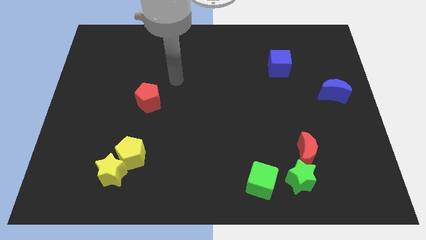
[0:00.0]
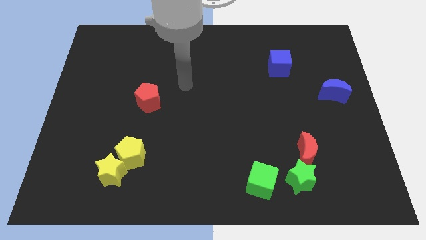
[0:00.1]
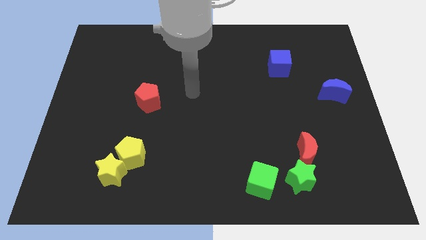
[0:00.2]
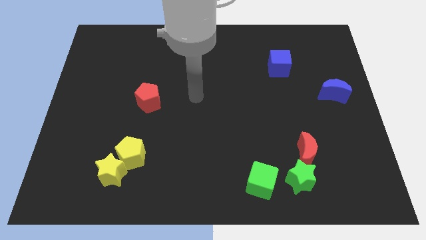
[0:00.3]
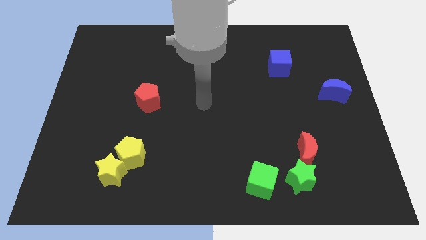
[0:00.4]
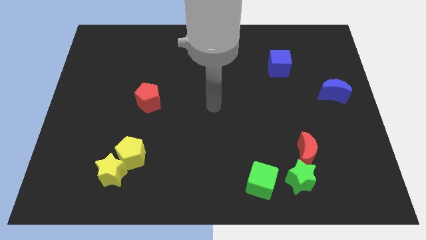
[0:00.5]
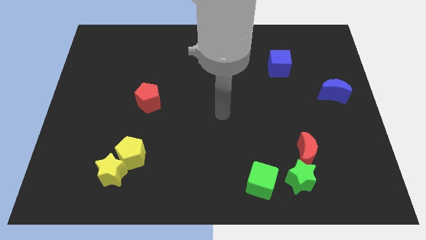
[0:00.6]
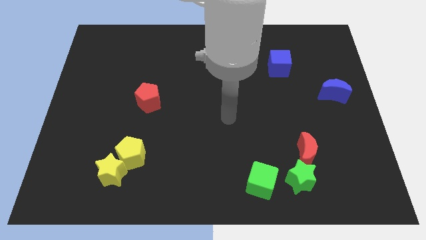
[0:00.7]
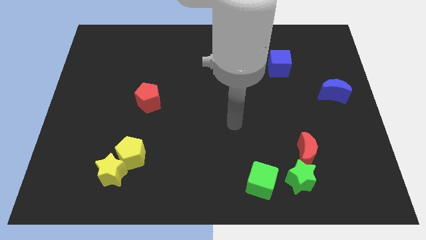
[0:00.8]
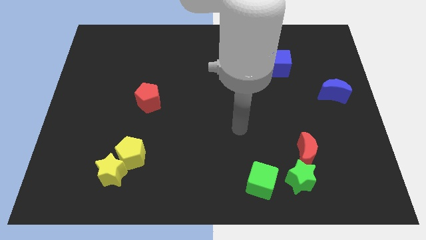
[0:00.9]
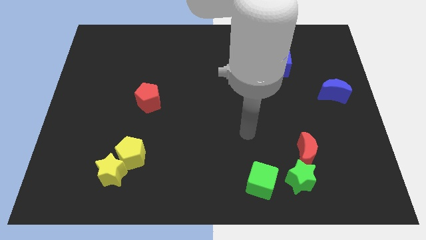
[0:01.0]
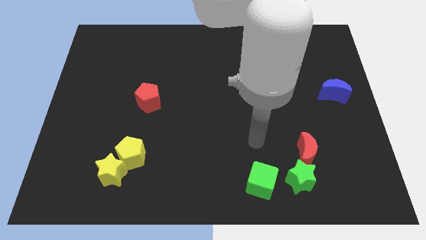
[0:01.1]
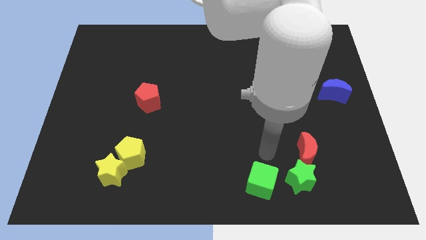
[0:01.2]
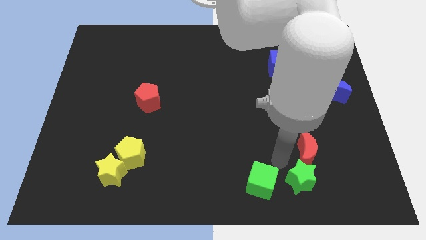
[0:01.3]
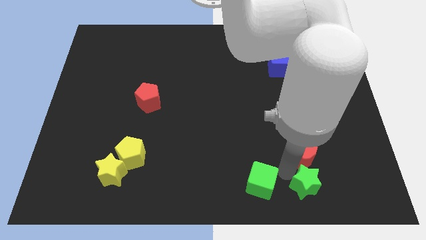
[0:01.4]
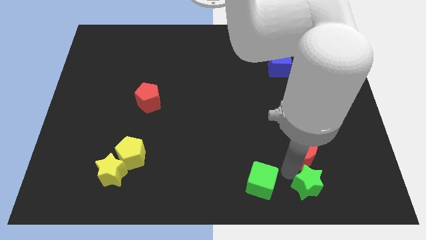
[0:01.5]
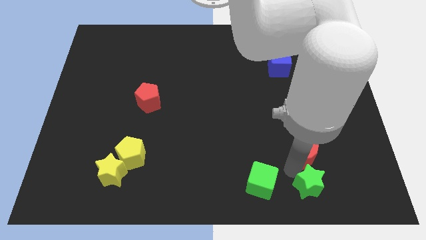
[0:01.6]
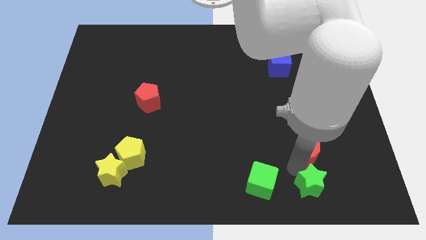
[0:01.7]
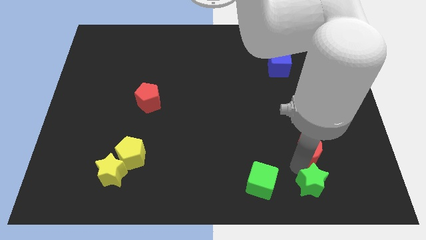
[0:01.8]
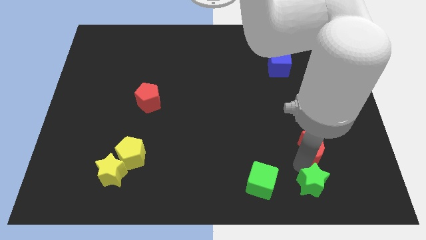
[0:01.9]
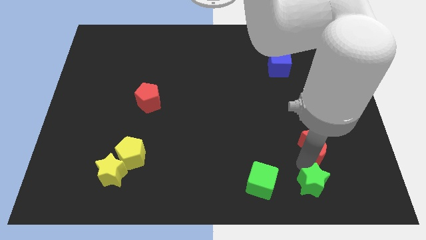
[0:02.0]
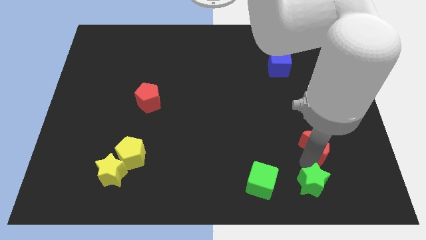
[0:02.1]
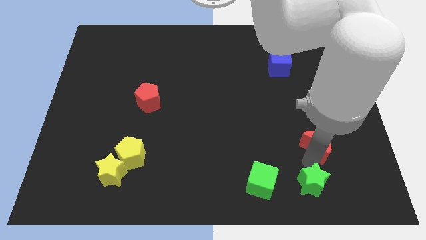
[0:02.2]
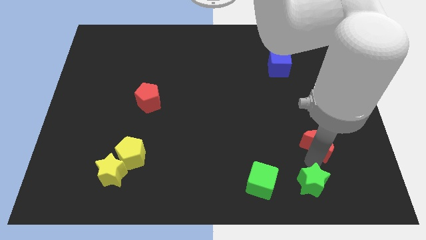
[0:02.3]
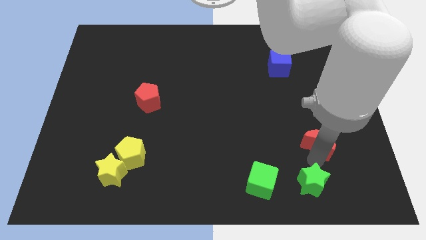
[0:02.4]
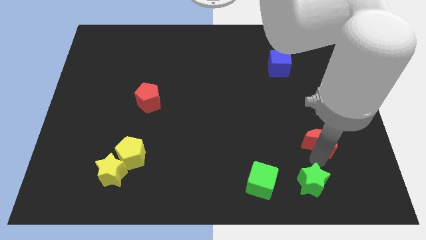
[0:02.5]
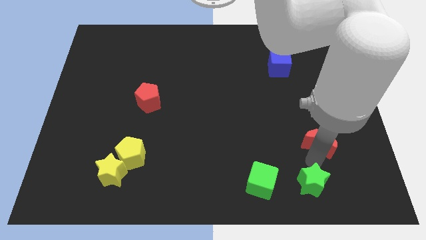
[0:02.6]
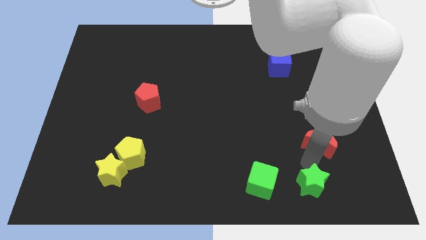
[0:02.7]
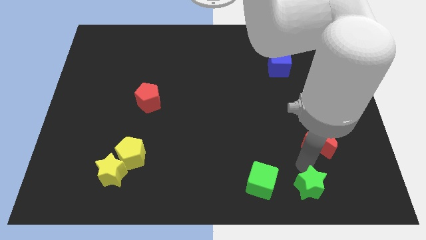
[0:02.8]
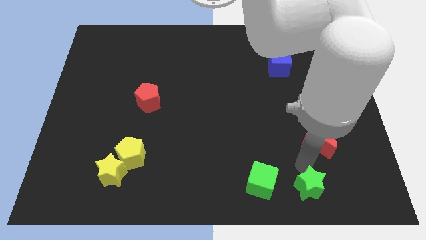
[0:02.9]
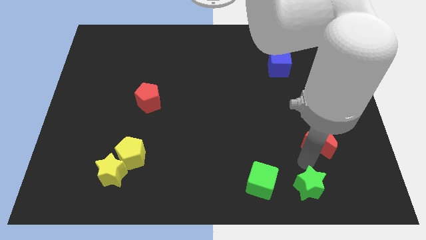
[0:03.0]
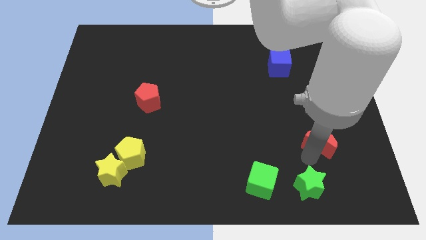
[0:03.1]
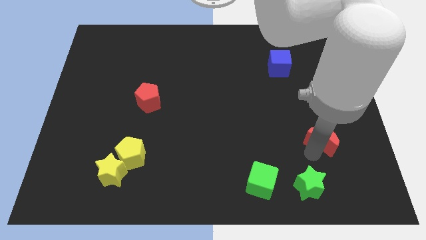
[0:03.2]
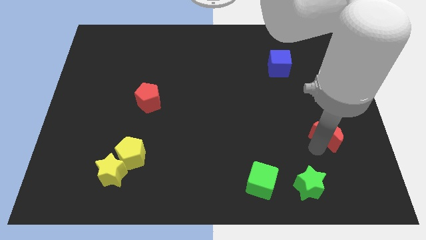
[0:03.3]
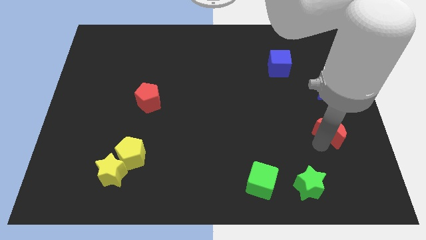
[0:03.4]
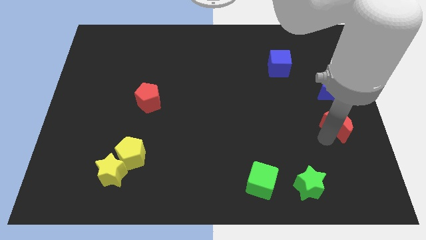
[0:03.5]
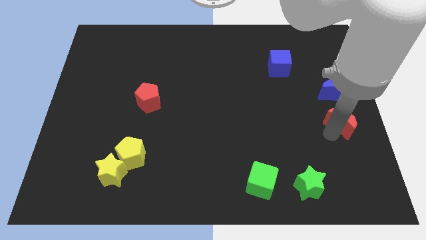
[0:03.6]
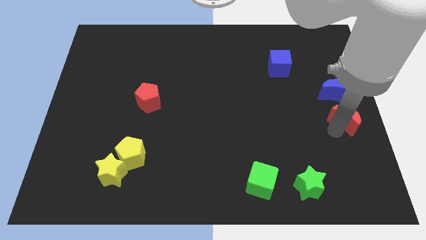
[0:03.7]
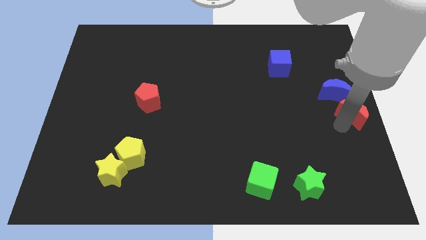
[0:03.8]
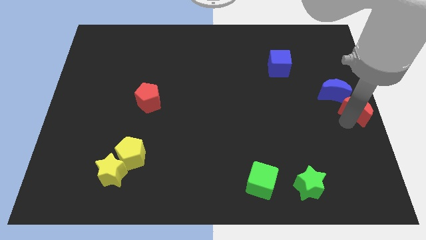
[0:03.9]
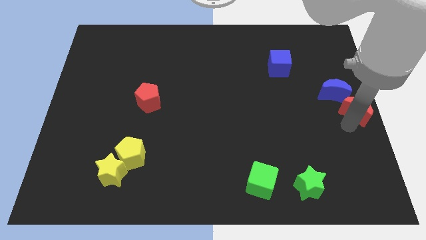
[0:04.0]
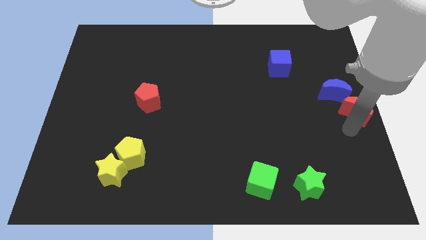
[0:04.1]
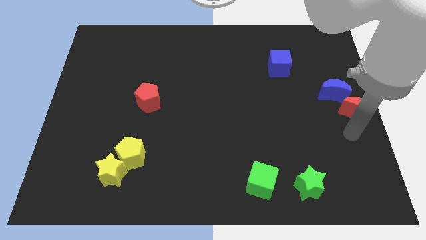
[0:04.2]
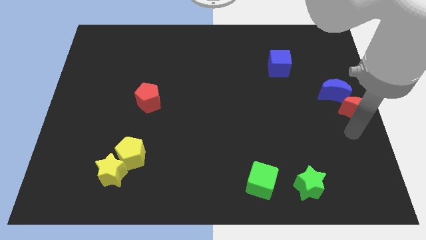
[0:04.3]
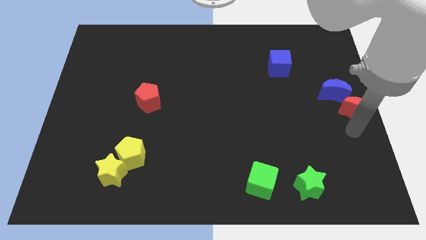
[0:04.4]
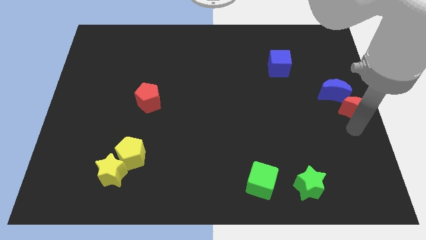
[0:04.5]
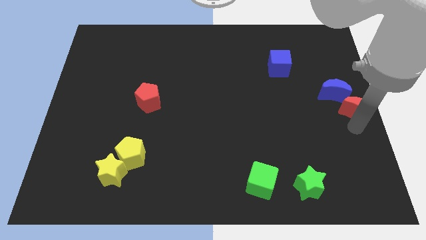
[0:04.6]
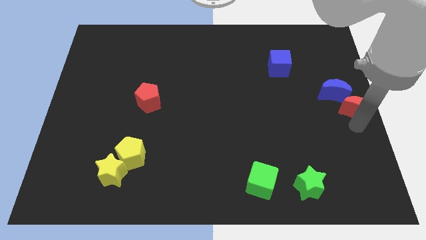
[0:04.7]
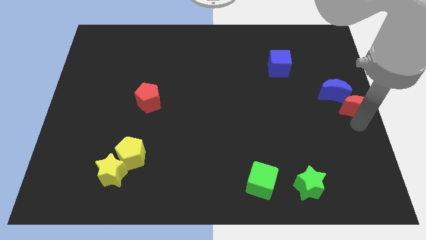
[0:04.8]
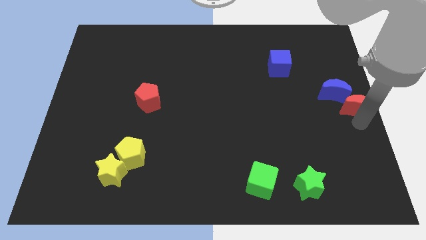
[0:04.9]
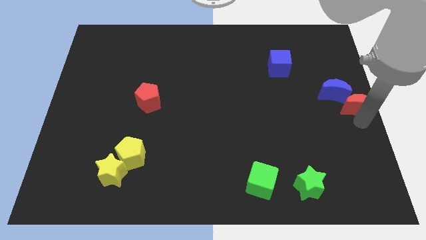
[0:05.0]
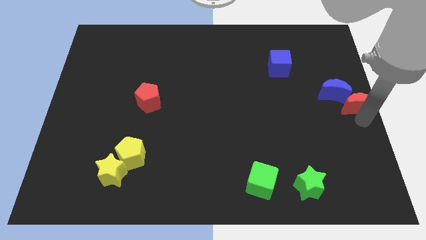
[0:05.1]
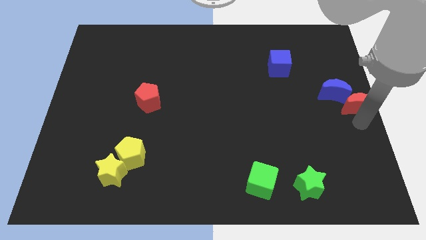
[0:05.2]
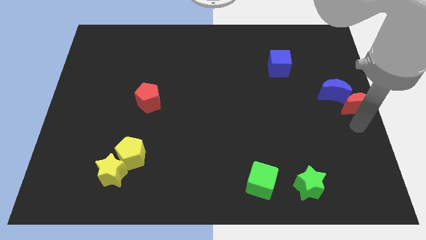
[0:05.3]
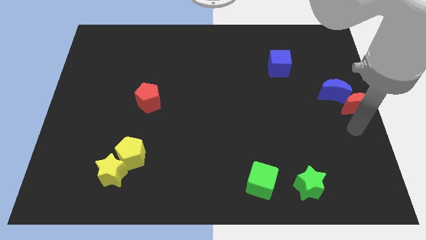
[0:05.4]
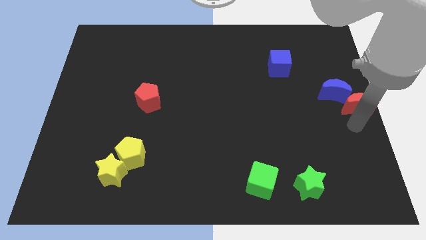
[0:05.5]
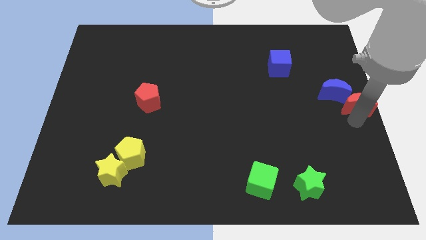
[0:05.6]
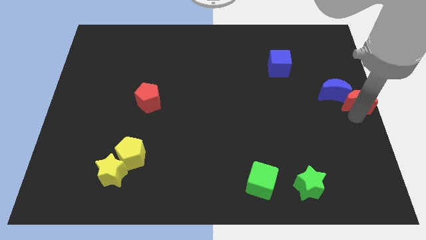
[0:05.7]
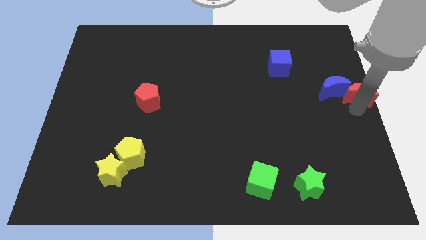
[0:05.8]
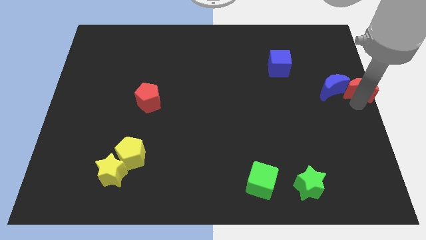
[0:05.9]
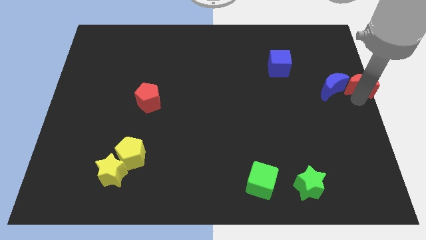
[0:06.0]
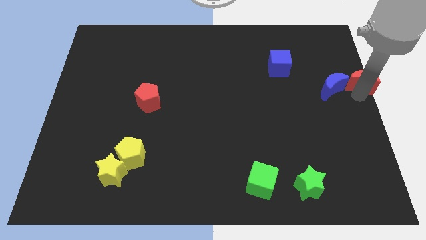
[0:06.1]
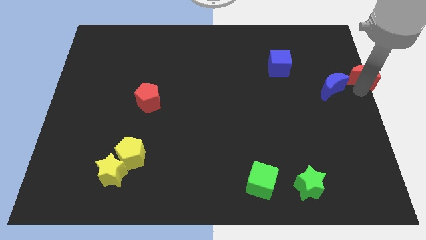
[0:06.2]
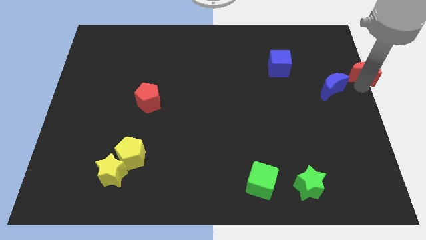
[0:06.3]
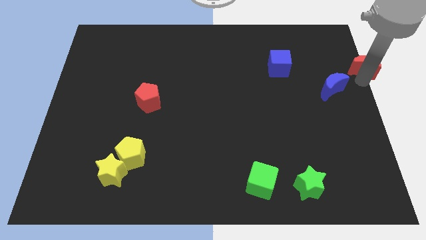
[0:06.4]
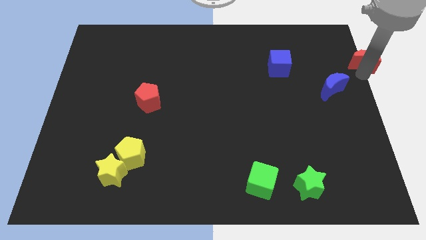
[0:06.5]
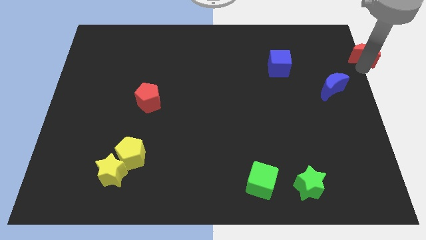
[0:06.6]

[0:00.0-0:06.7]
move the red moon to the upper right corner
